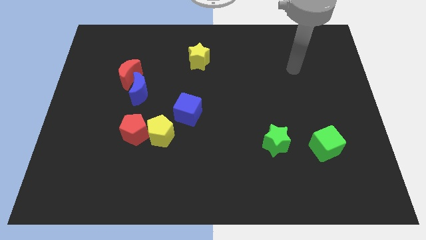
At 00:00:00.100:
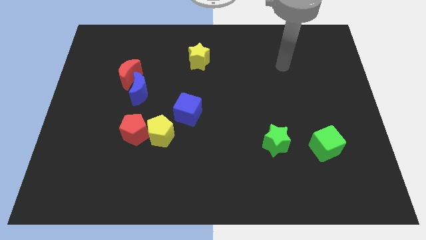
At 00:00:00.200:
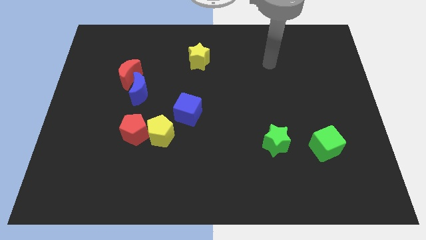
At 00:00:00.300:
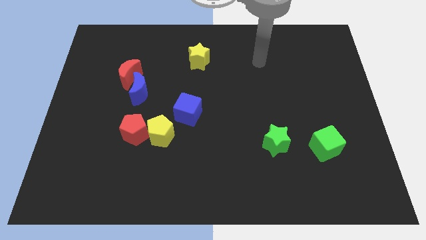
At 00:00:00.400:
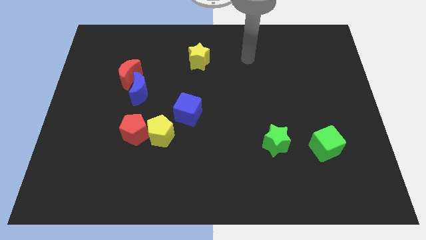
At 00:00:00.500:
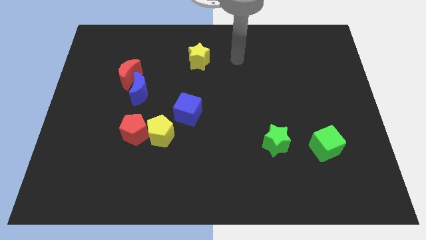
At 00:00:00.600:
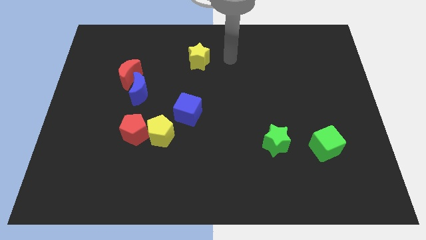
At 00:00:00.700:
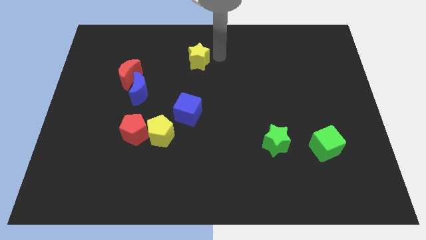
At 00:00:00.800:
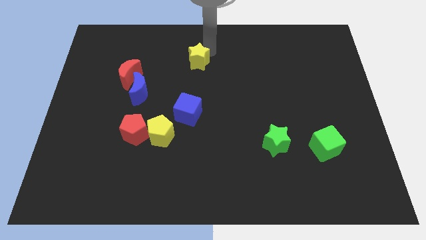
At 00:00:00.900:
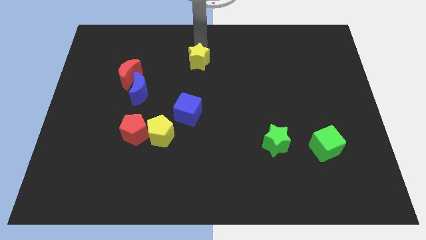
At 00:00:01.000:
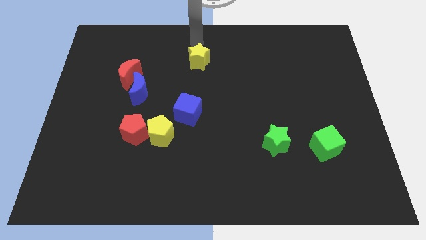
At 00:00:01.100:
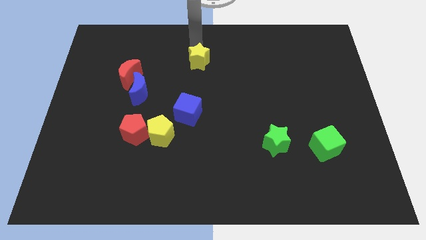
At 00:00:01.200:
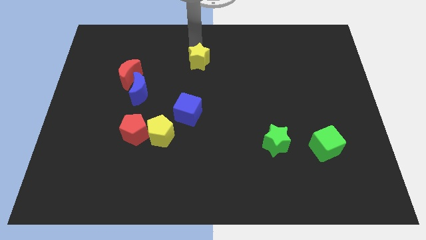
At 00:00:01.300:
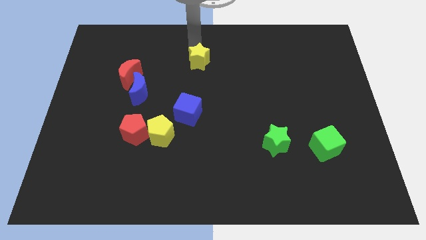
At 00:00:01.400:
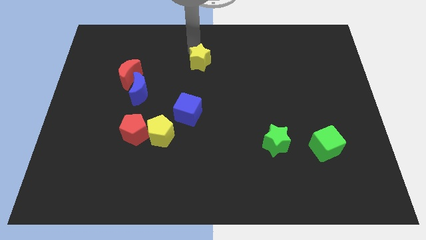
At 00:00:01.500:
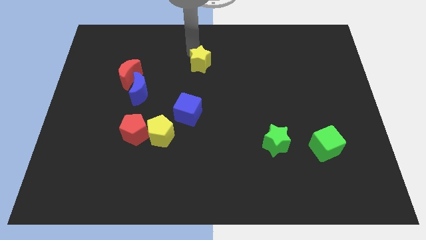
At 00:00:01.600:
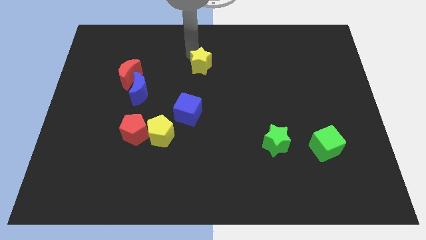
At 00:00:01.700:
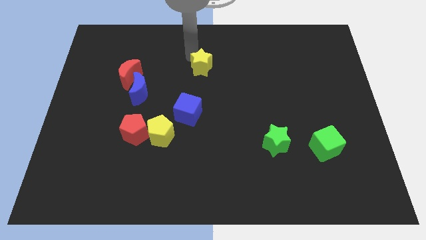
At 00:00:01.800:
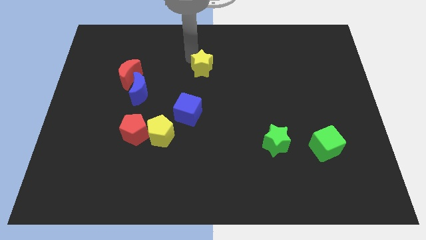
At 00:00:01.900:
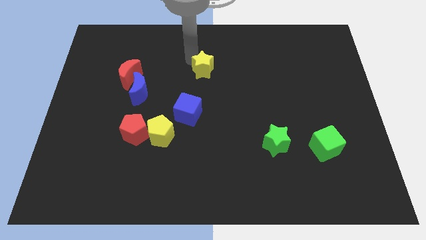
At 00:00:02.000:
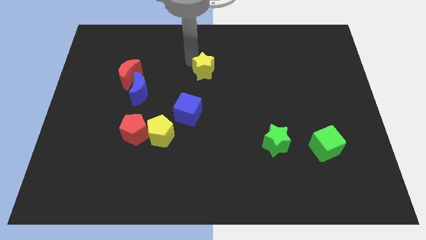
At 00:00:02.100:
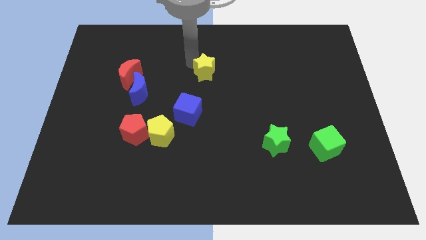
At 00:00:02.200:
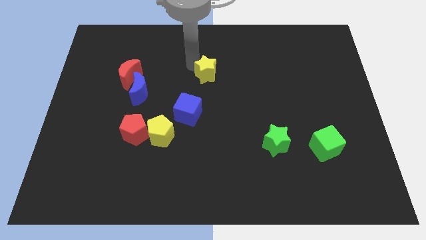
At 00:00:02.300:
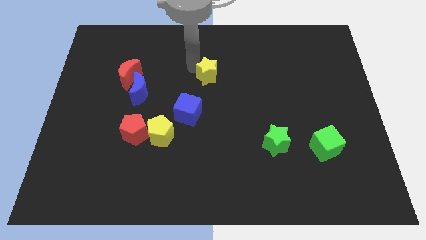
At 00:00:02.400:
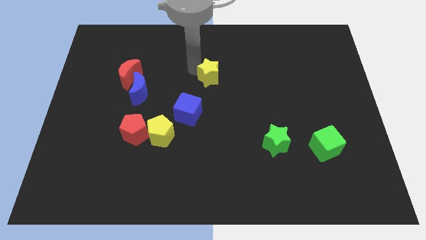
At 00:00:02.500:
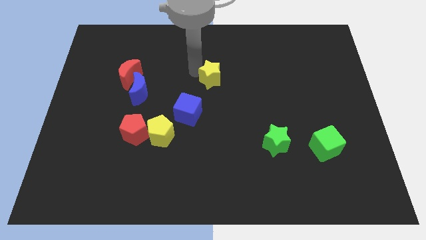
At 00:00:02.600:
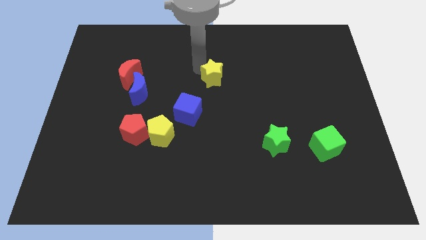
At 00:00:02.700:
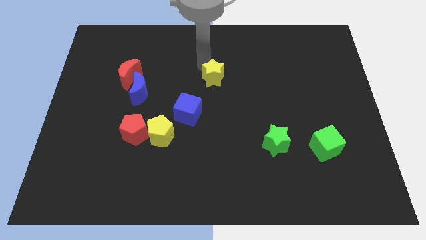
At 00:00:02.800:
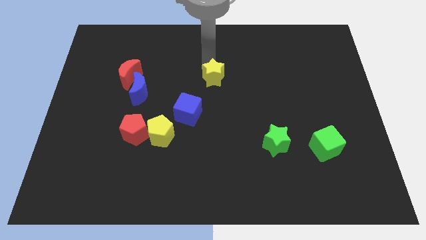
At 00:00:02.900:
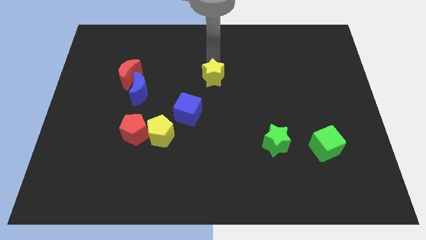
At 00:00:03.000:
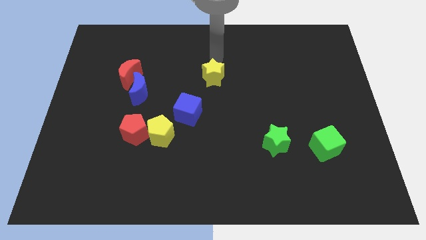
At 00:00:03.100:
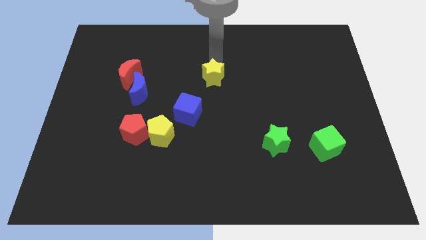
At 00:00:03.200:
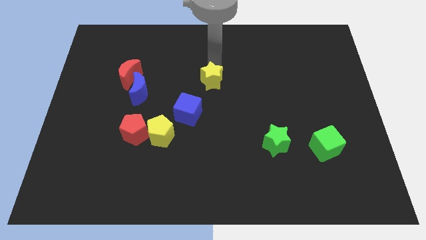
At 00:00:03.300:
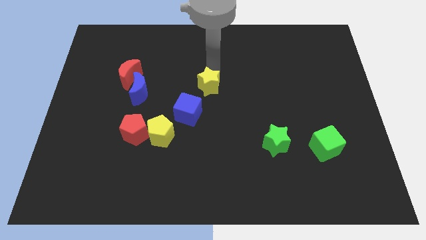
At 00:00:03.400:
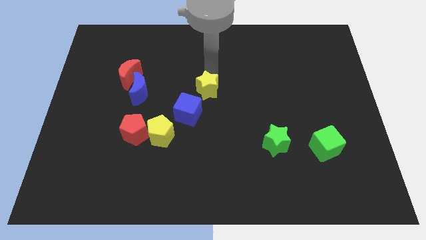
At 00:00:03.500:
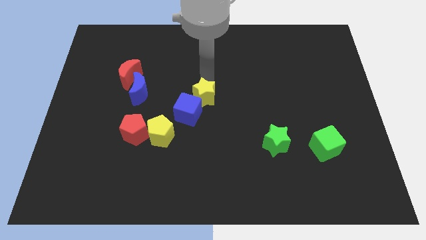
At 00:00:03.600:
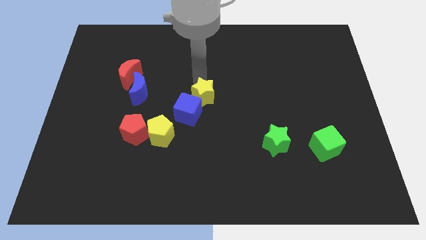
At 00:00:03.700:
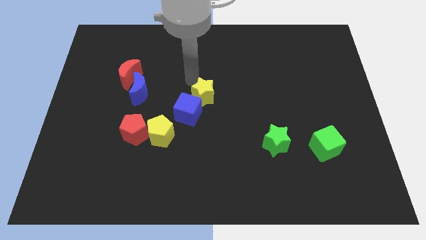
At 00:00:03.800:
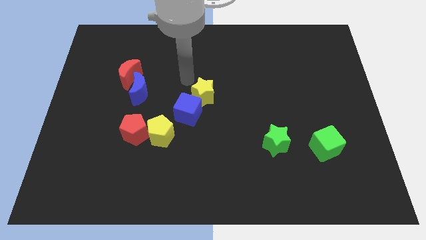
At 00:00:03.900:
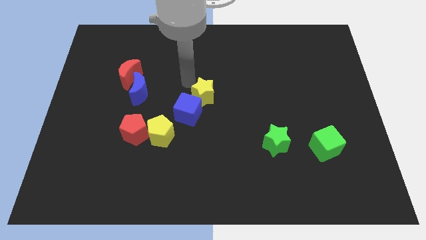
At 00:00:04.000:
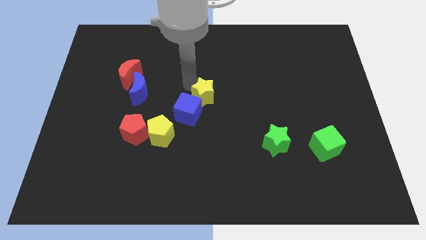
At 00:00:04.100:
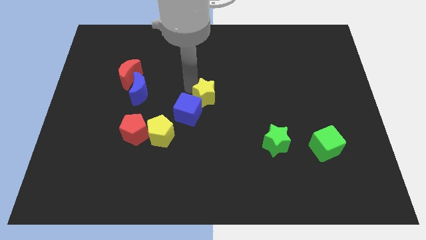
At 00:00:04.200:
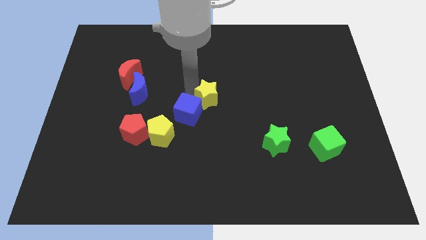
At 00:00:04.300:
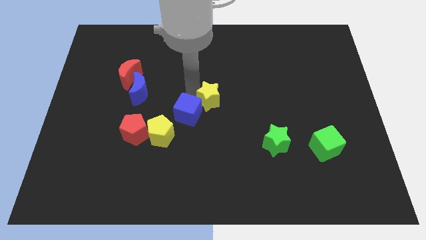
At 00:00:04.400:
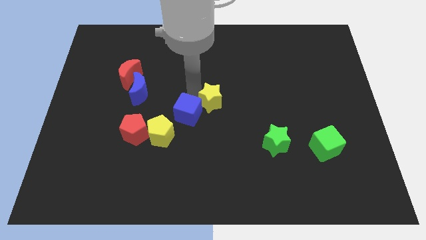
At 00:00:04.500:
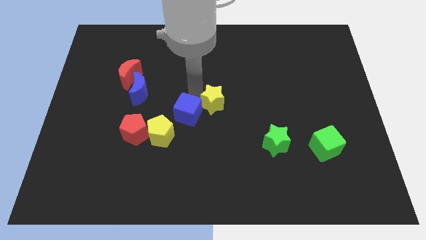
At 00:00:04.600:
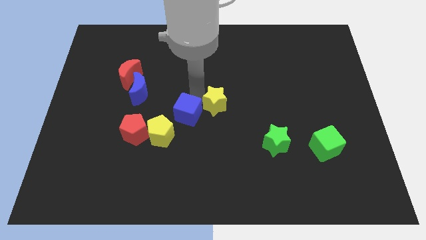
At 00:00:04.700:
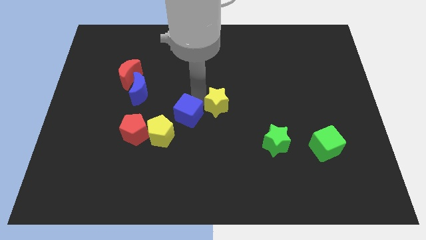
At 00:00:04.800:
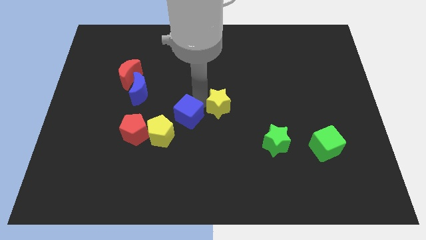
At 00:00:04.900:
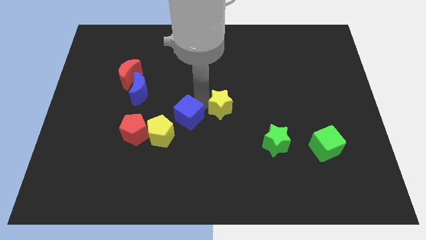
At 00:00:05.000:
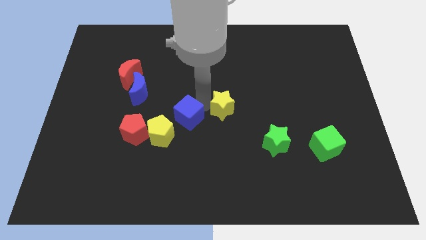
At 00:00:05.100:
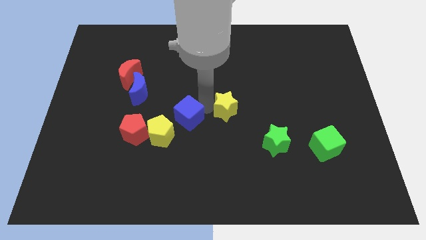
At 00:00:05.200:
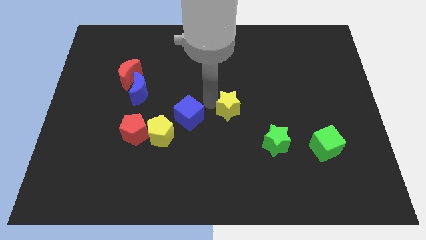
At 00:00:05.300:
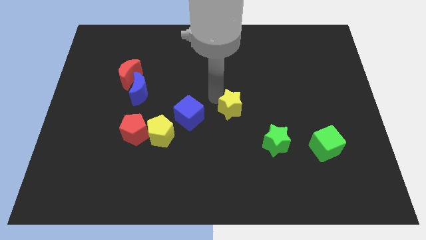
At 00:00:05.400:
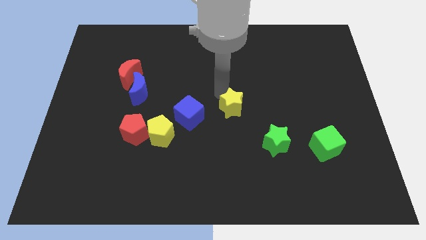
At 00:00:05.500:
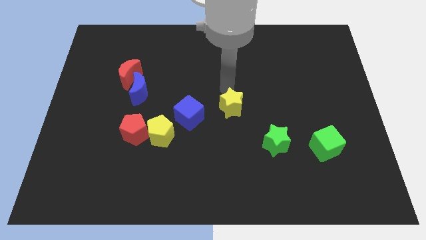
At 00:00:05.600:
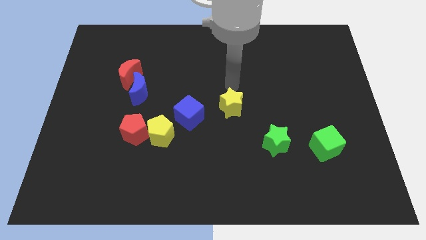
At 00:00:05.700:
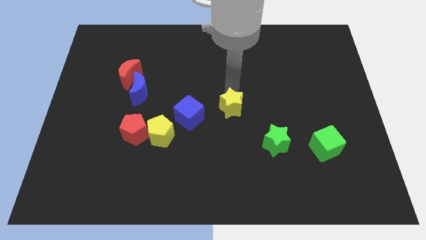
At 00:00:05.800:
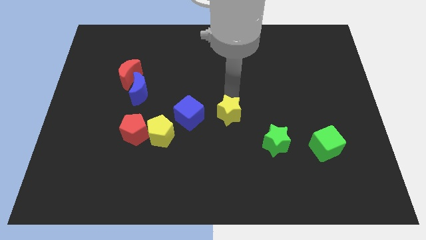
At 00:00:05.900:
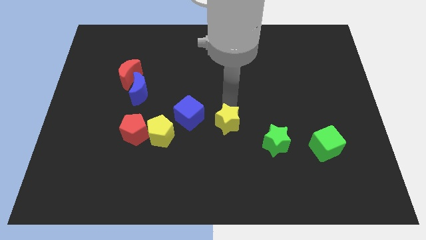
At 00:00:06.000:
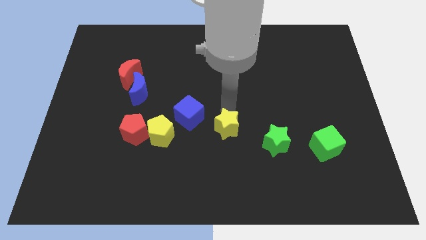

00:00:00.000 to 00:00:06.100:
push the yellow star just left of the green star

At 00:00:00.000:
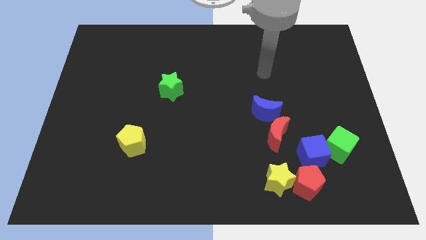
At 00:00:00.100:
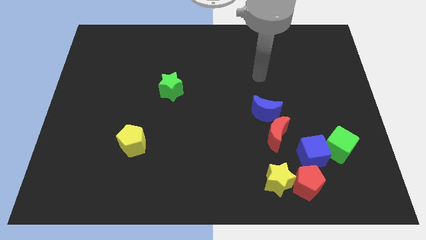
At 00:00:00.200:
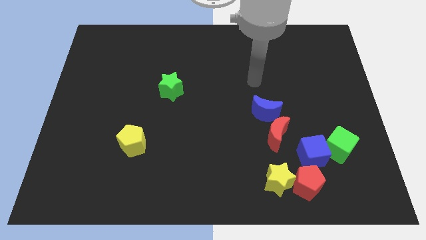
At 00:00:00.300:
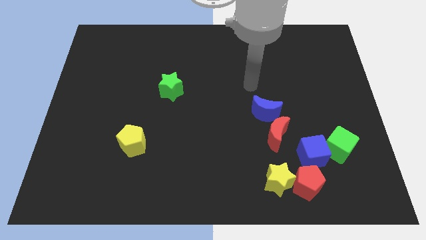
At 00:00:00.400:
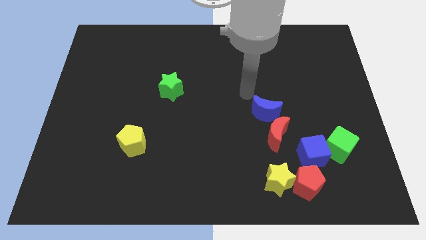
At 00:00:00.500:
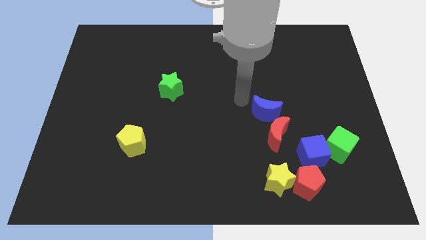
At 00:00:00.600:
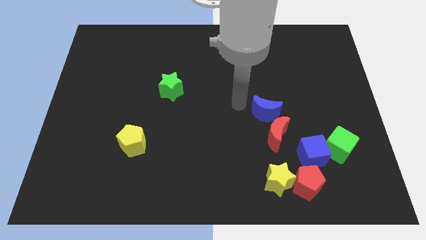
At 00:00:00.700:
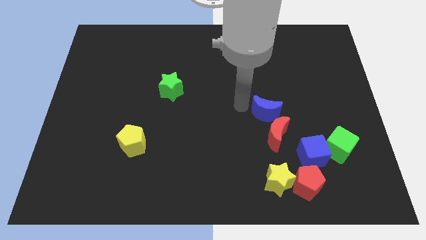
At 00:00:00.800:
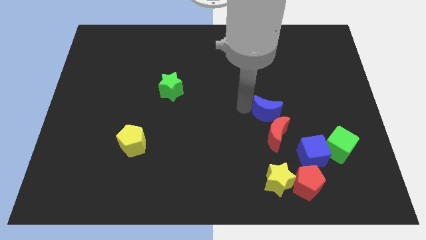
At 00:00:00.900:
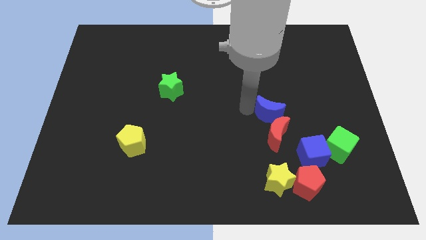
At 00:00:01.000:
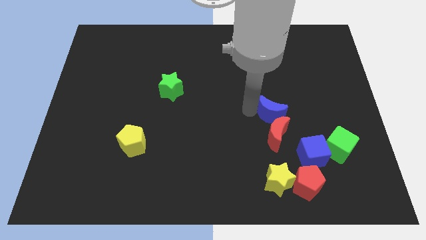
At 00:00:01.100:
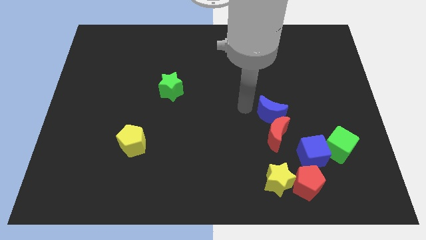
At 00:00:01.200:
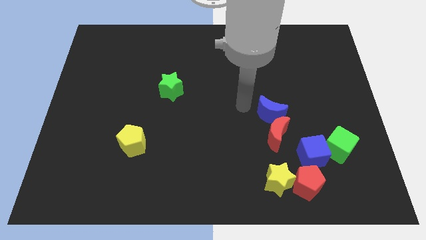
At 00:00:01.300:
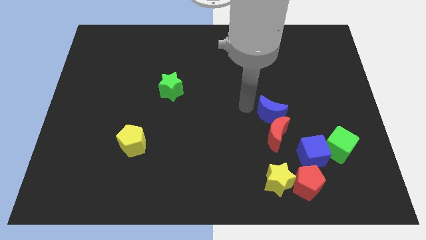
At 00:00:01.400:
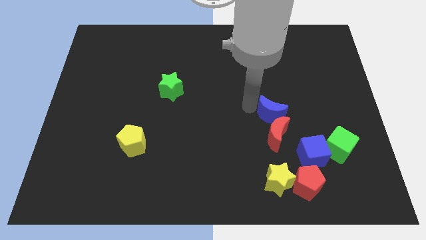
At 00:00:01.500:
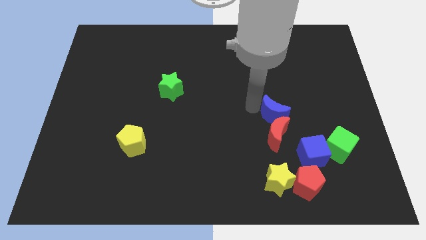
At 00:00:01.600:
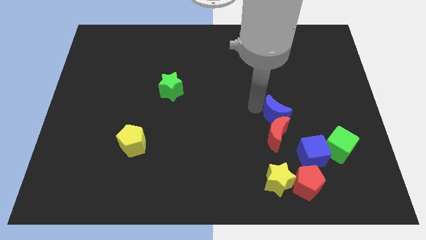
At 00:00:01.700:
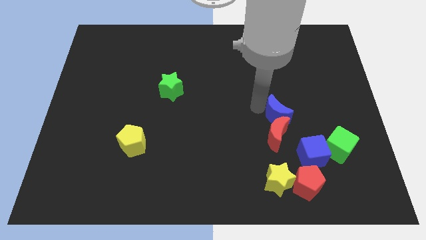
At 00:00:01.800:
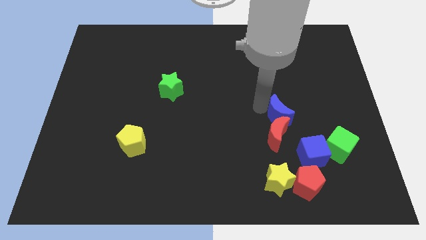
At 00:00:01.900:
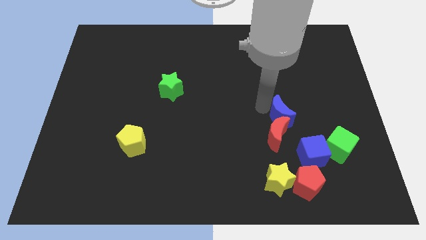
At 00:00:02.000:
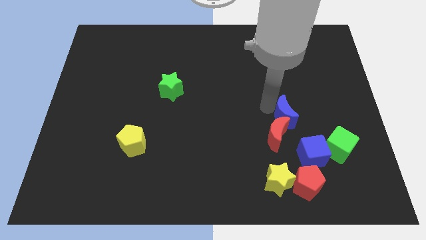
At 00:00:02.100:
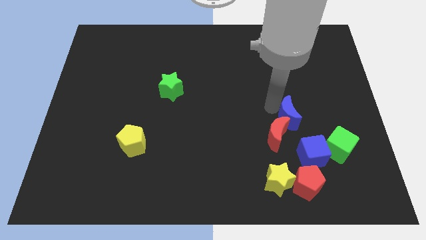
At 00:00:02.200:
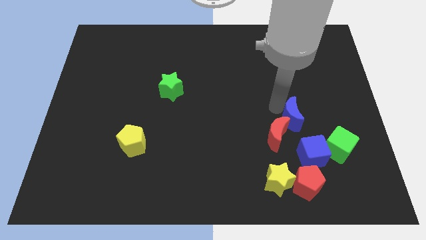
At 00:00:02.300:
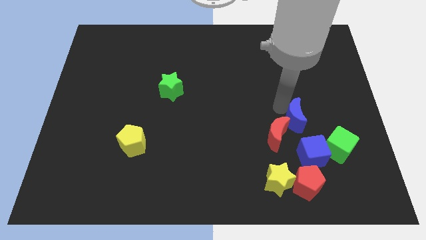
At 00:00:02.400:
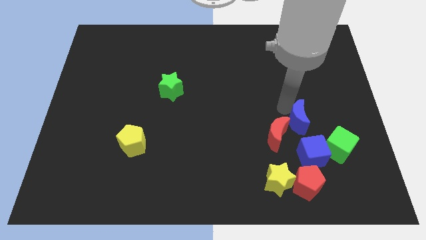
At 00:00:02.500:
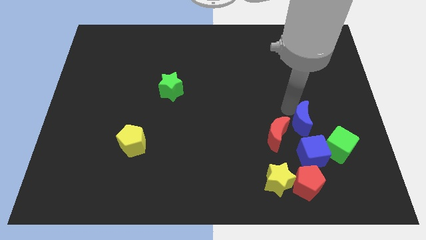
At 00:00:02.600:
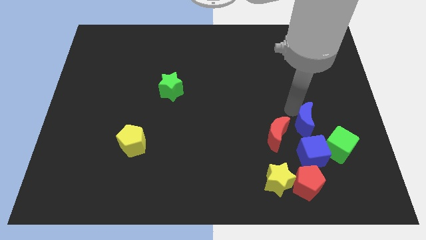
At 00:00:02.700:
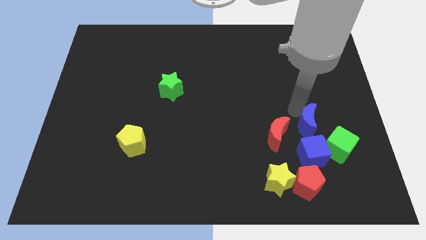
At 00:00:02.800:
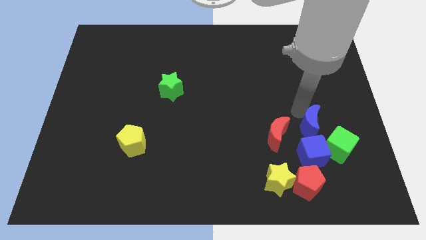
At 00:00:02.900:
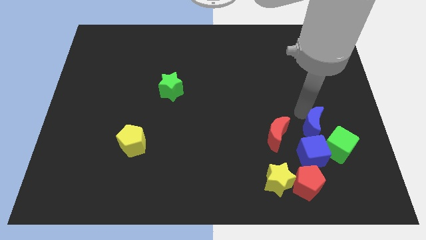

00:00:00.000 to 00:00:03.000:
push the blue moon to the top right side of the blue cube
